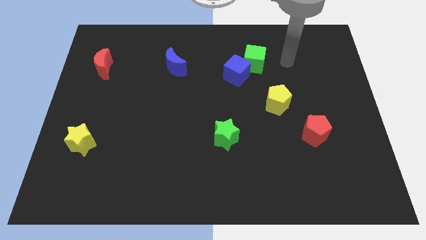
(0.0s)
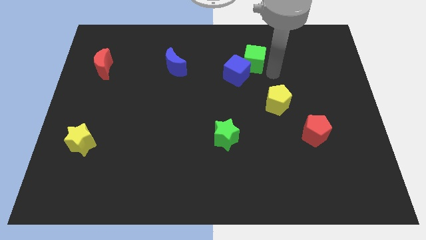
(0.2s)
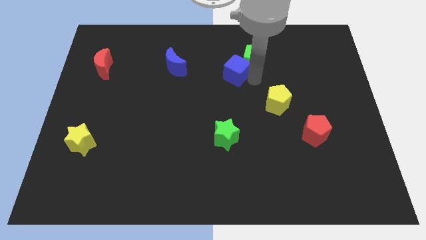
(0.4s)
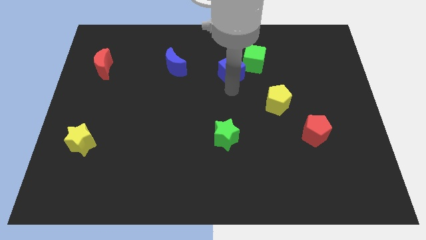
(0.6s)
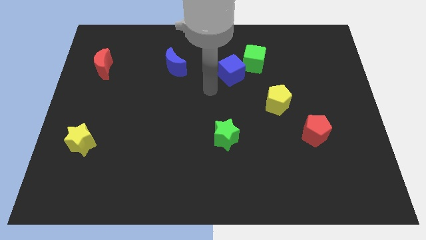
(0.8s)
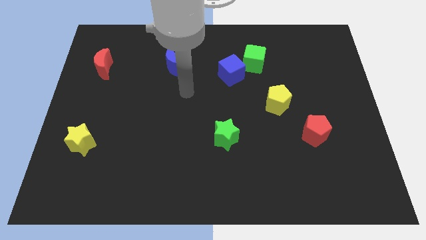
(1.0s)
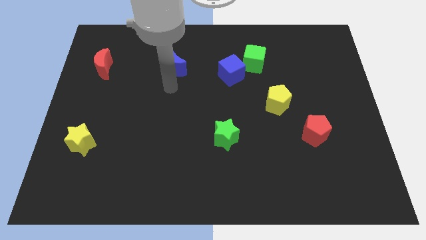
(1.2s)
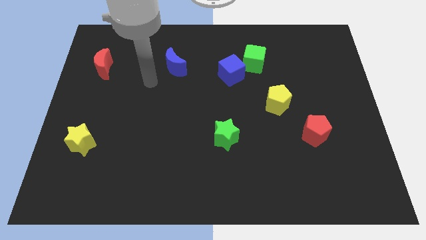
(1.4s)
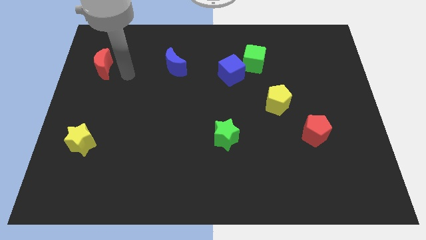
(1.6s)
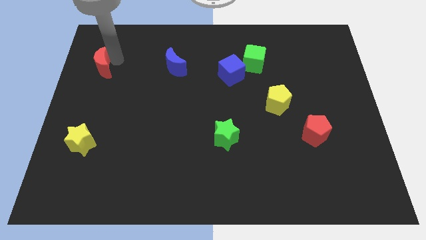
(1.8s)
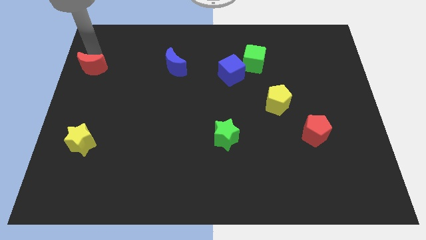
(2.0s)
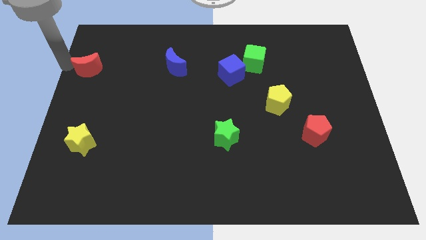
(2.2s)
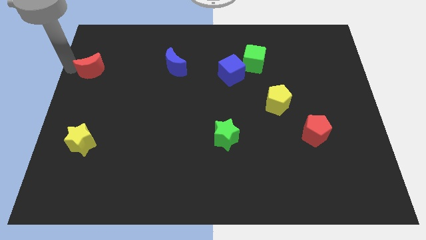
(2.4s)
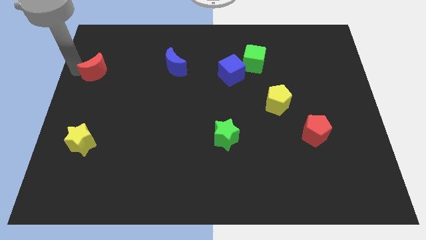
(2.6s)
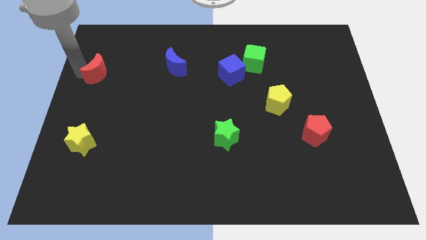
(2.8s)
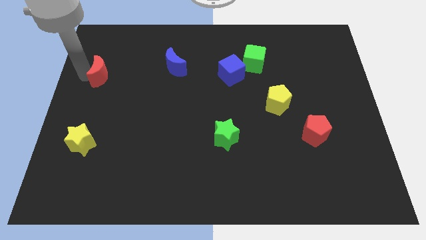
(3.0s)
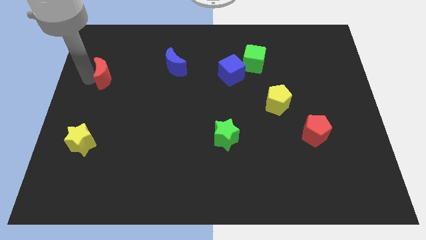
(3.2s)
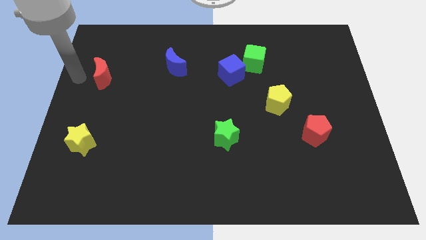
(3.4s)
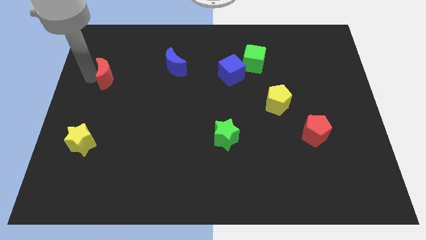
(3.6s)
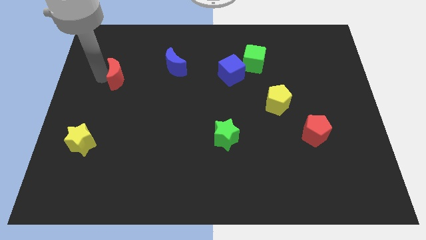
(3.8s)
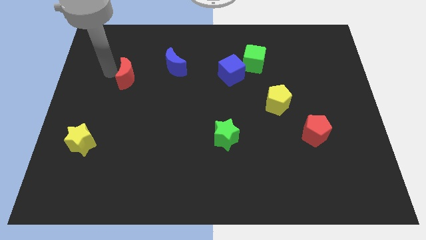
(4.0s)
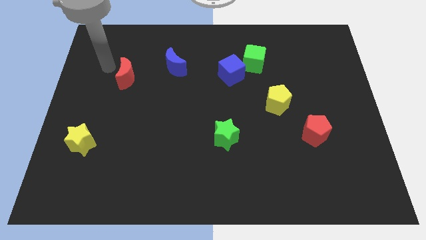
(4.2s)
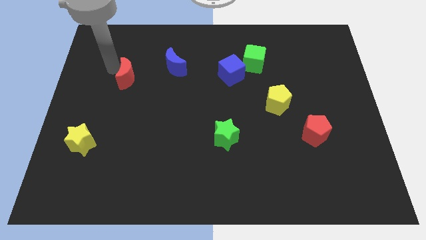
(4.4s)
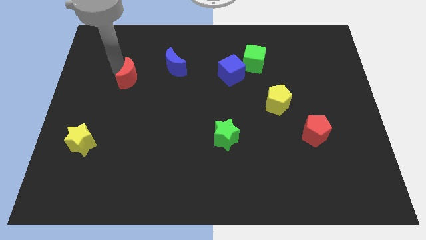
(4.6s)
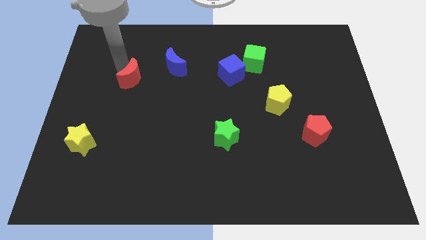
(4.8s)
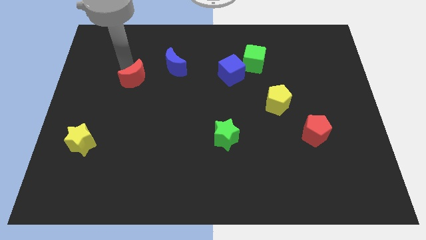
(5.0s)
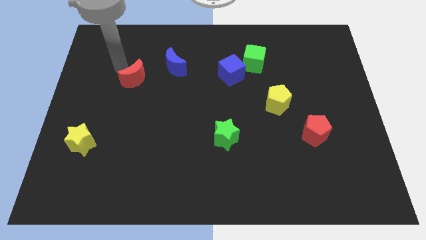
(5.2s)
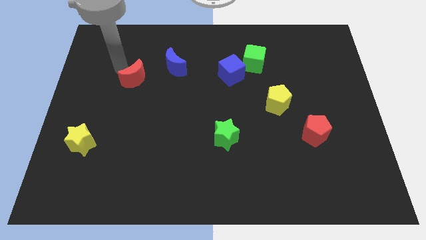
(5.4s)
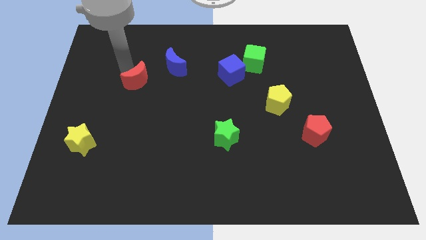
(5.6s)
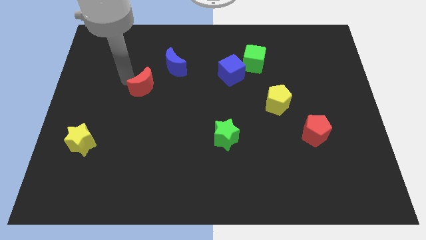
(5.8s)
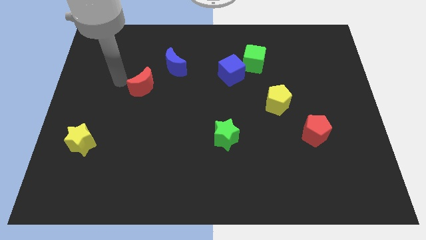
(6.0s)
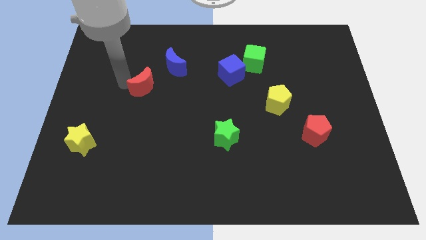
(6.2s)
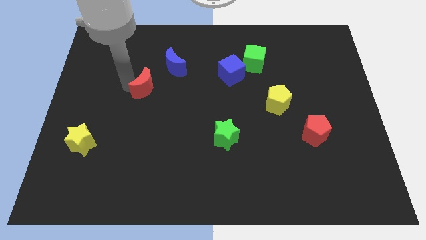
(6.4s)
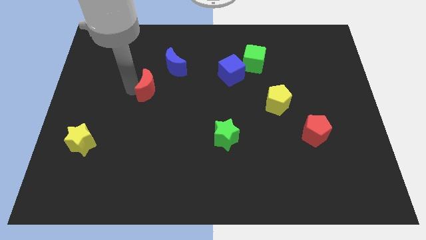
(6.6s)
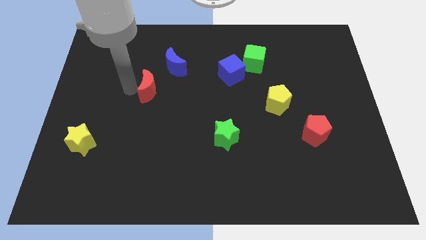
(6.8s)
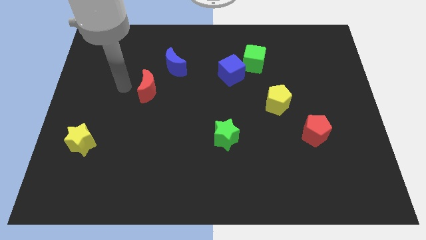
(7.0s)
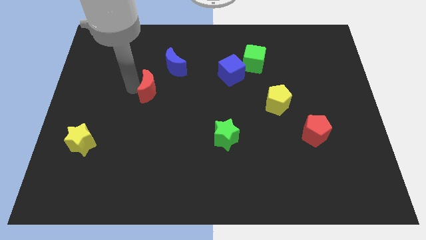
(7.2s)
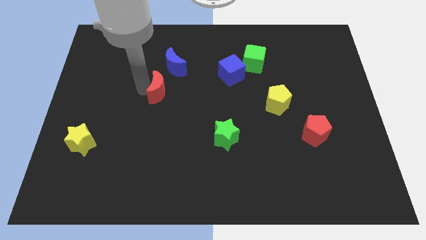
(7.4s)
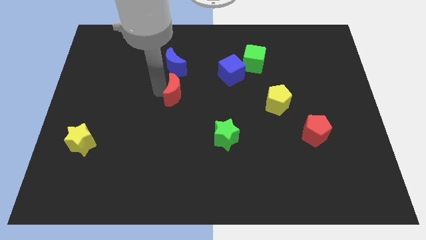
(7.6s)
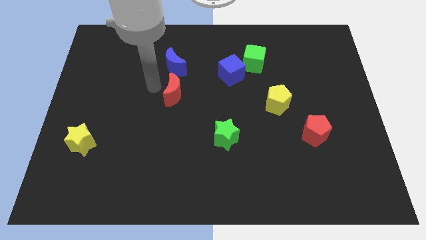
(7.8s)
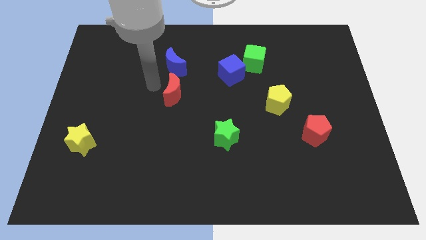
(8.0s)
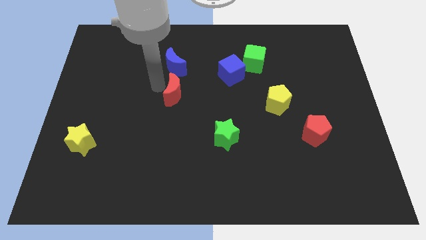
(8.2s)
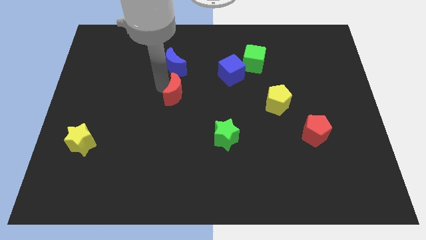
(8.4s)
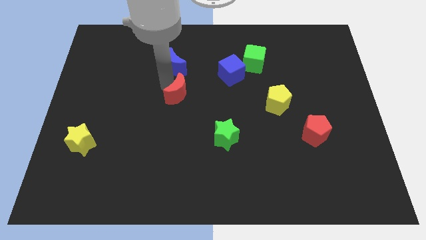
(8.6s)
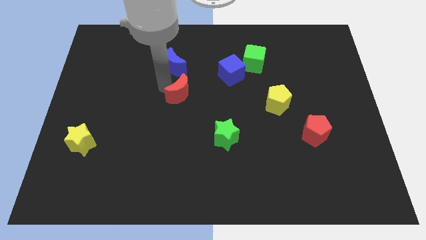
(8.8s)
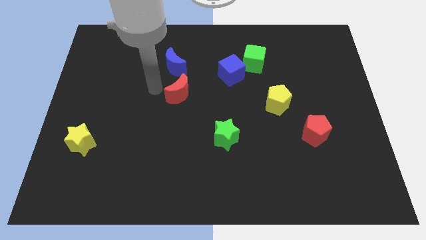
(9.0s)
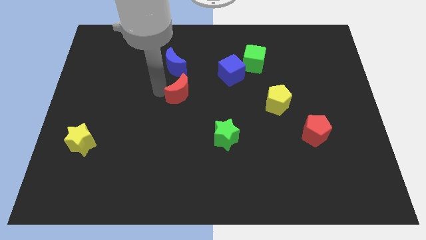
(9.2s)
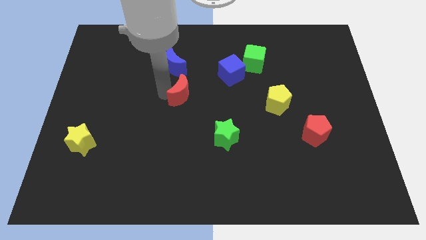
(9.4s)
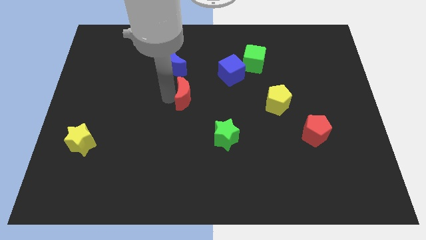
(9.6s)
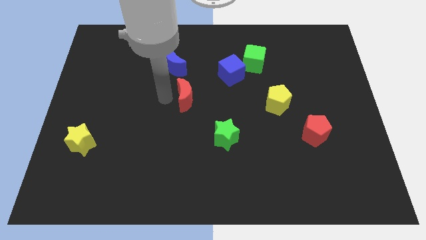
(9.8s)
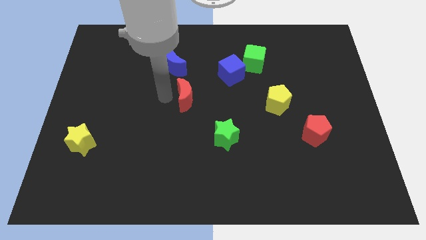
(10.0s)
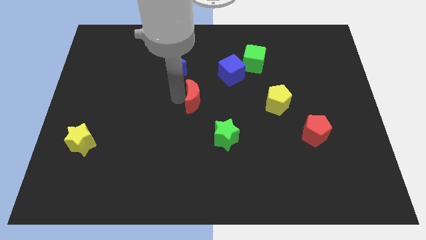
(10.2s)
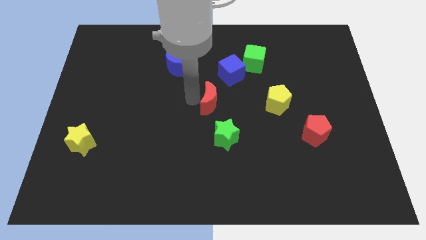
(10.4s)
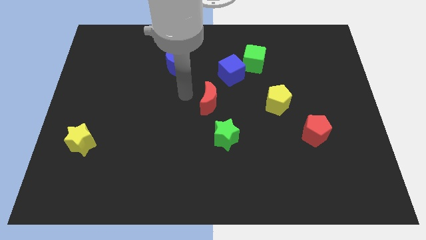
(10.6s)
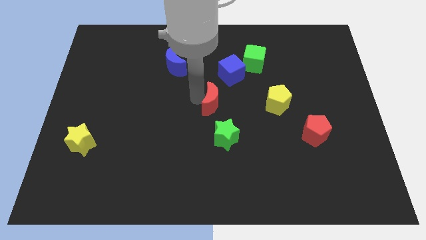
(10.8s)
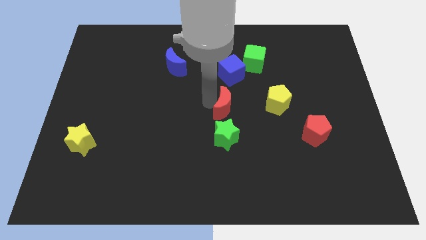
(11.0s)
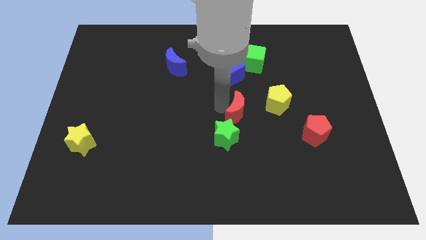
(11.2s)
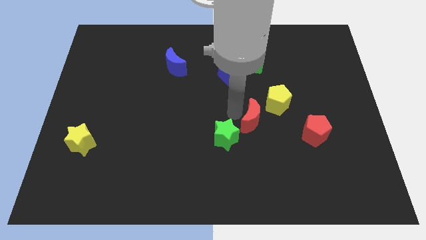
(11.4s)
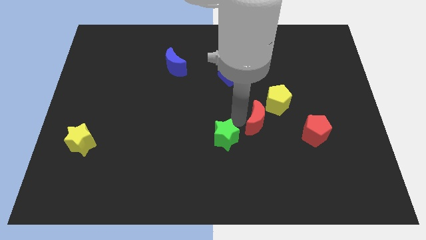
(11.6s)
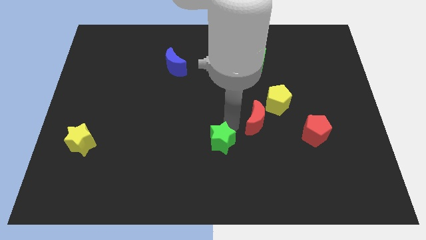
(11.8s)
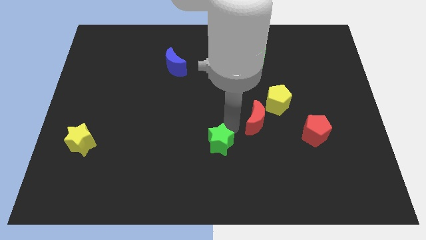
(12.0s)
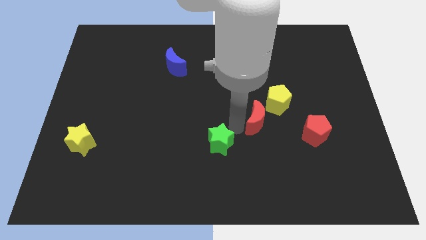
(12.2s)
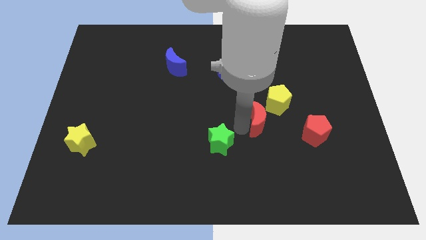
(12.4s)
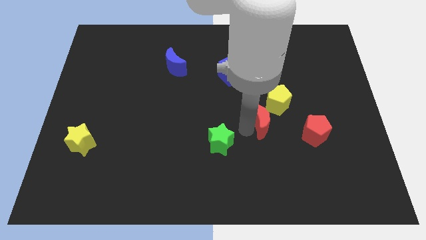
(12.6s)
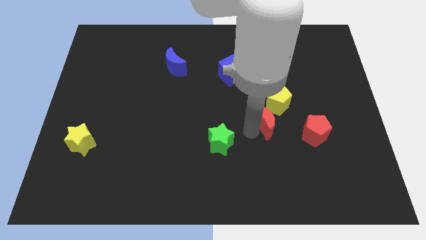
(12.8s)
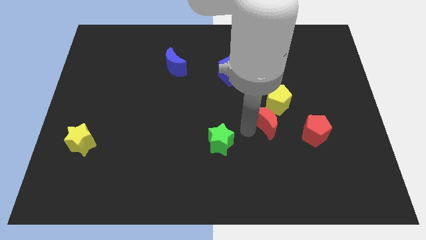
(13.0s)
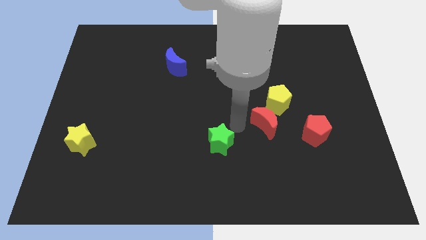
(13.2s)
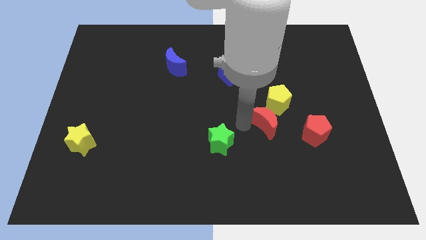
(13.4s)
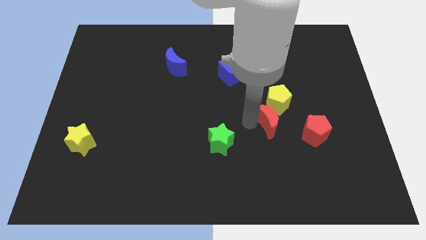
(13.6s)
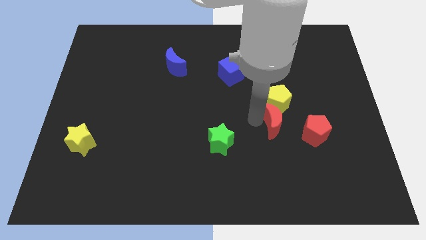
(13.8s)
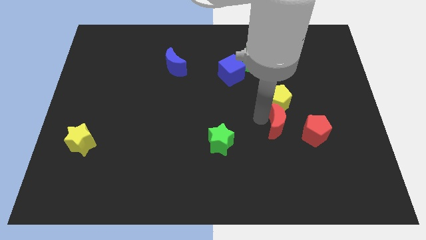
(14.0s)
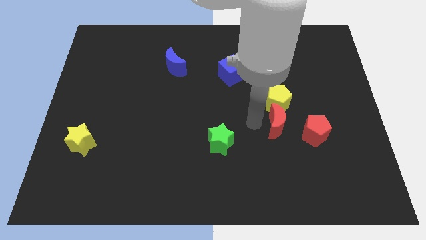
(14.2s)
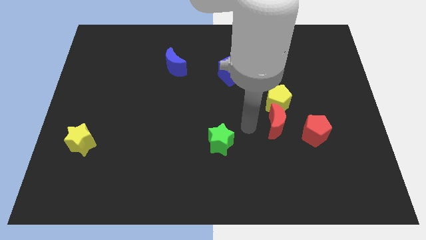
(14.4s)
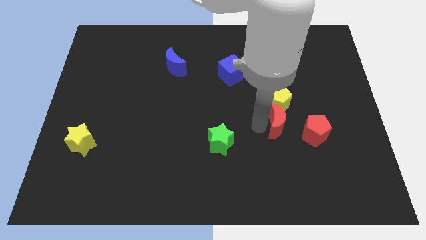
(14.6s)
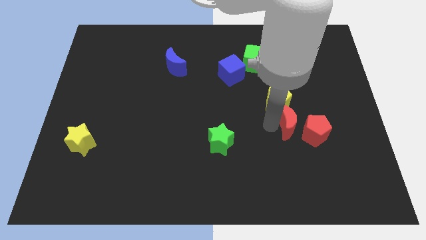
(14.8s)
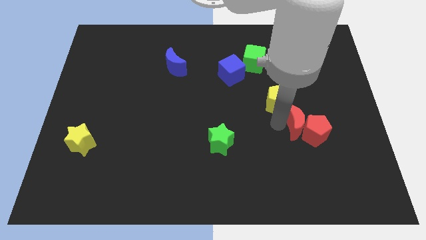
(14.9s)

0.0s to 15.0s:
push the red moon next to the red pentagon

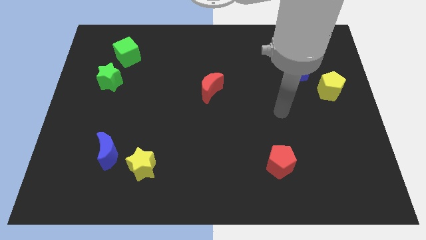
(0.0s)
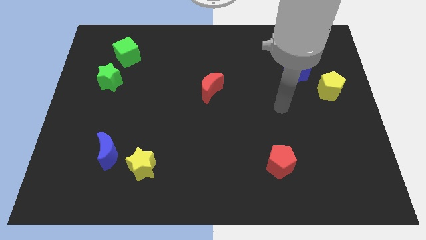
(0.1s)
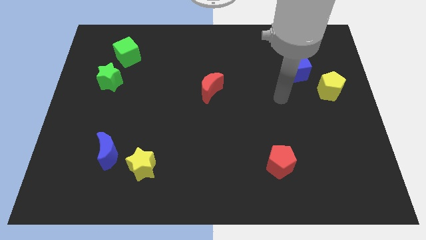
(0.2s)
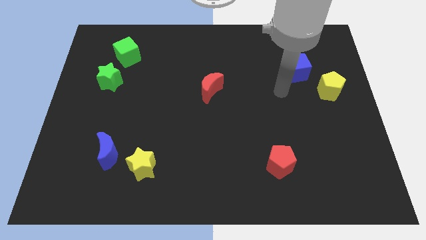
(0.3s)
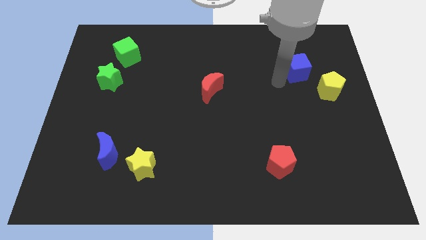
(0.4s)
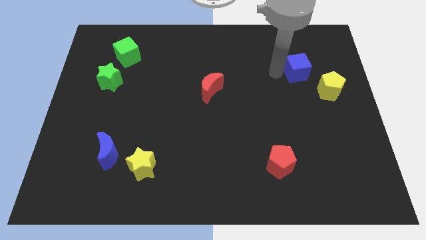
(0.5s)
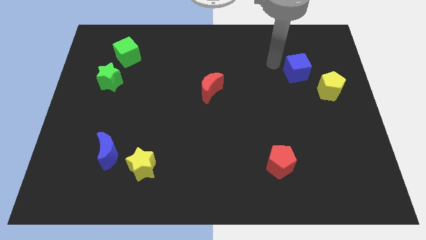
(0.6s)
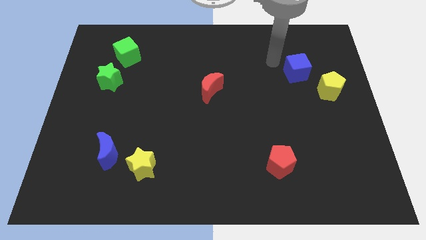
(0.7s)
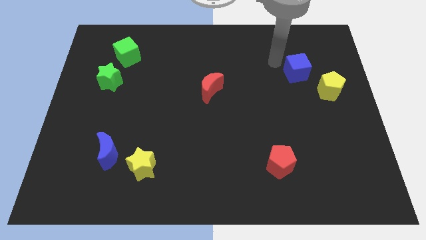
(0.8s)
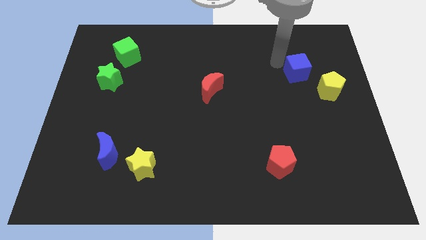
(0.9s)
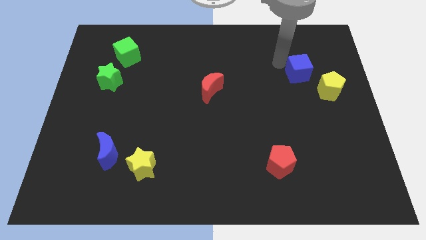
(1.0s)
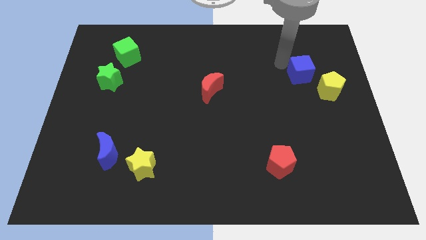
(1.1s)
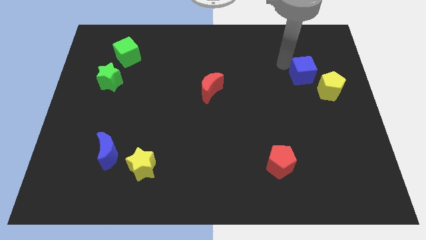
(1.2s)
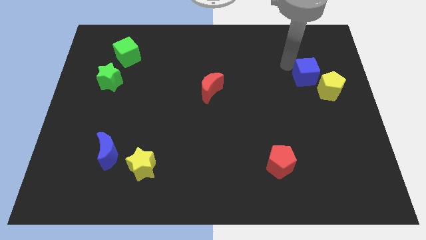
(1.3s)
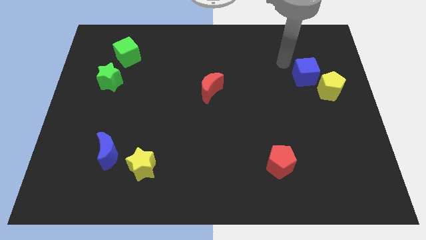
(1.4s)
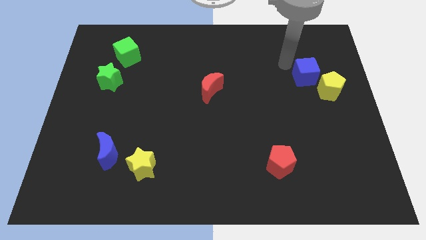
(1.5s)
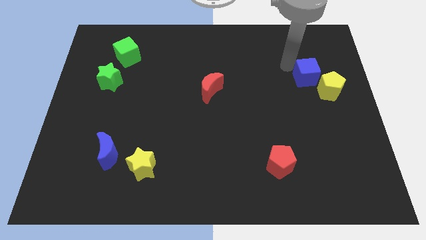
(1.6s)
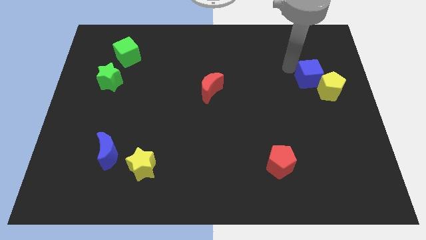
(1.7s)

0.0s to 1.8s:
push the blue cube to the yellow pentagon
